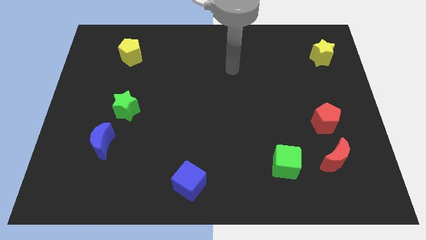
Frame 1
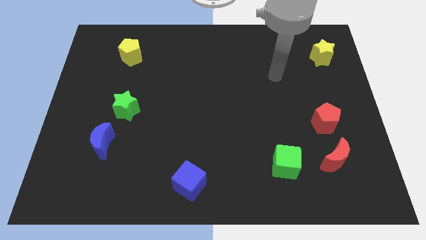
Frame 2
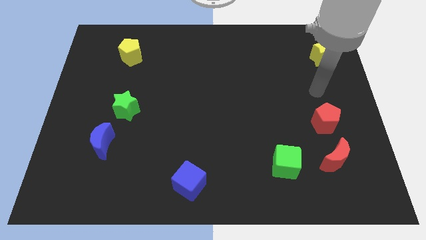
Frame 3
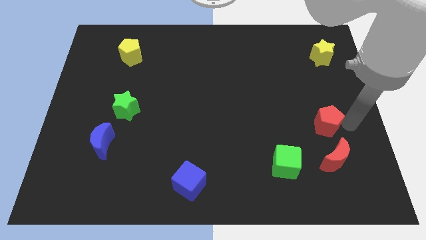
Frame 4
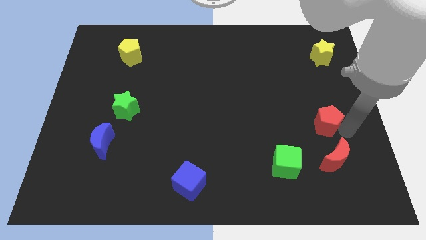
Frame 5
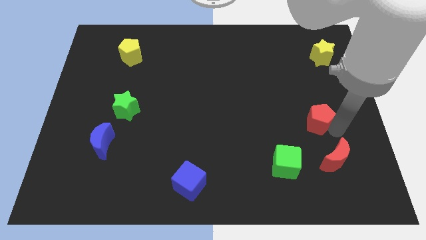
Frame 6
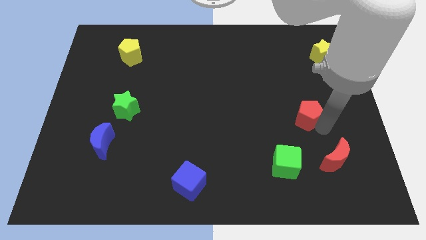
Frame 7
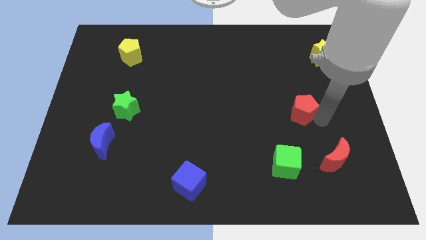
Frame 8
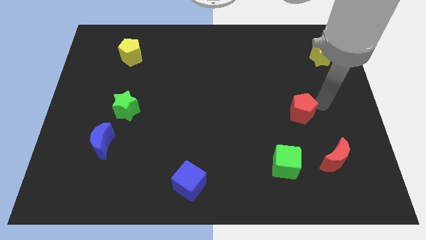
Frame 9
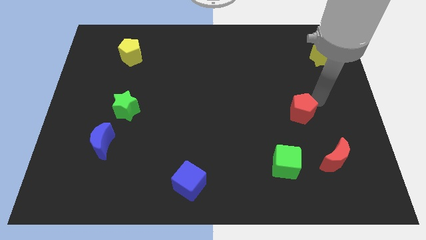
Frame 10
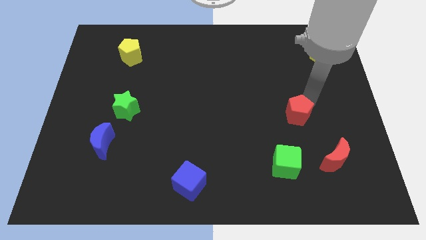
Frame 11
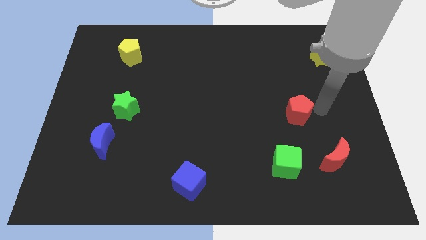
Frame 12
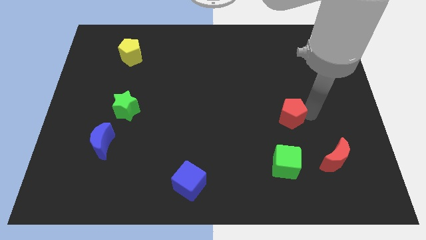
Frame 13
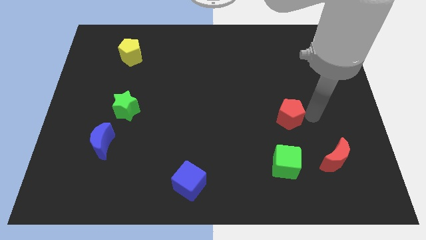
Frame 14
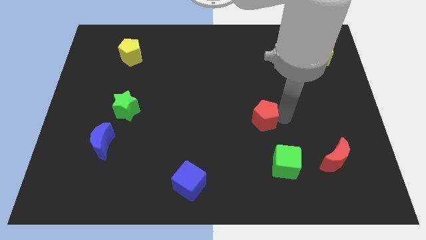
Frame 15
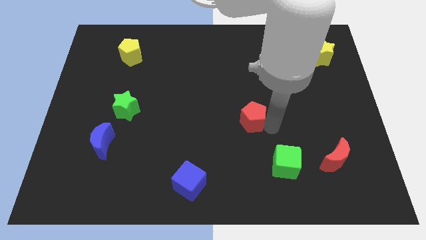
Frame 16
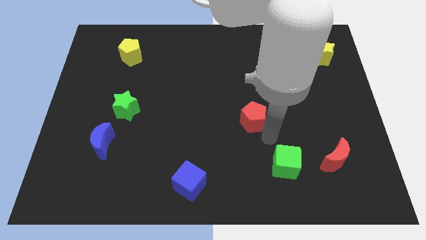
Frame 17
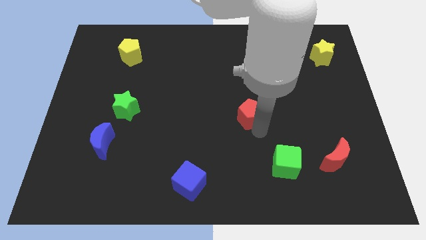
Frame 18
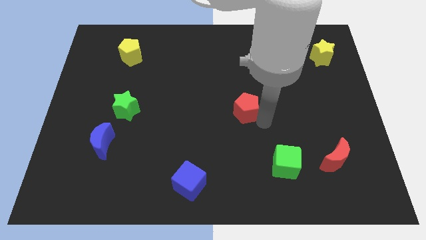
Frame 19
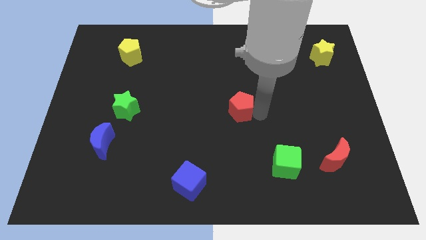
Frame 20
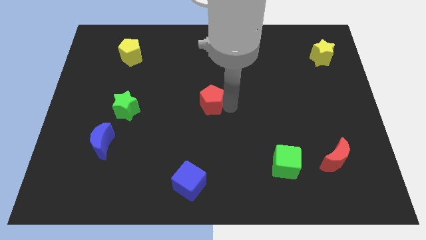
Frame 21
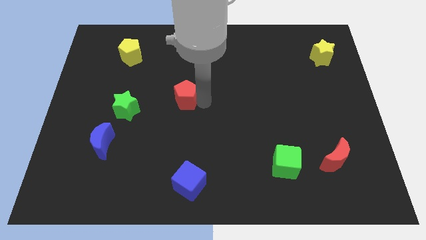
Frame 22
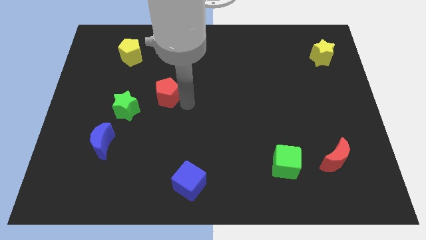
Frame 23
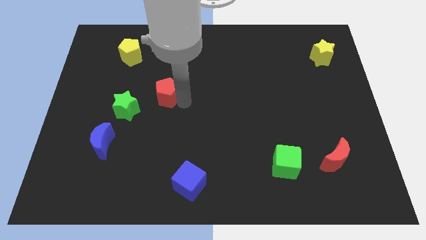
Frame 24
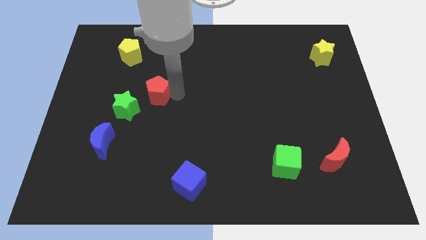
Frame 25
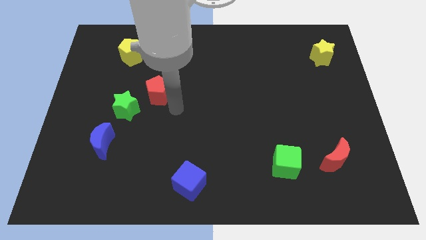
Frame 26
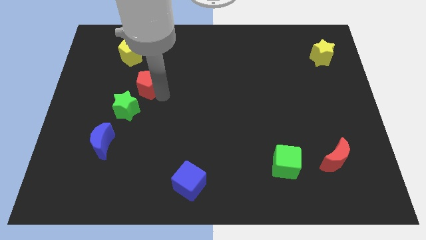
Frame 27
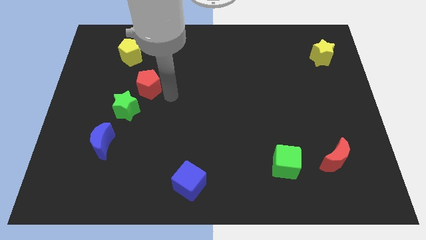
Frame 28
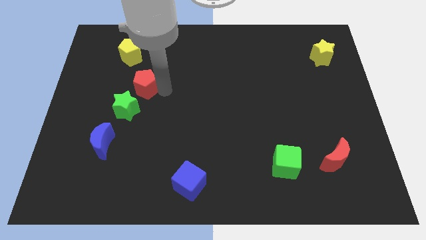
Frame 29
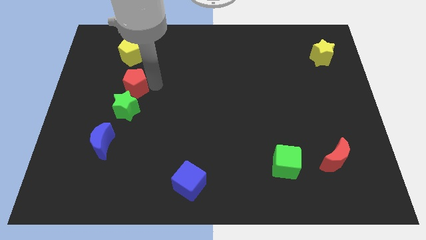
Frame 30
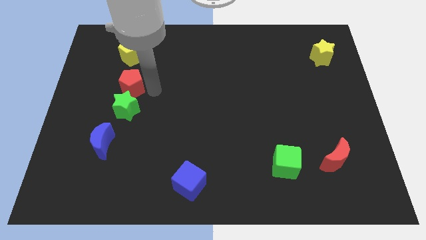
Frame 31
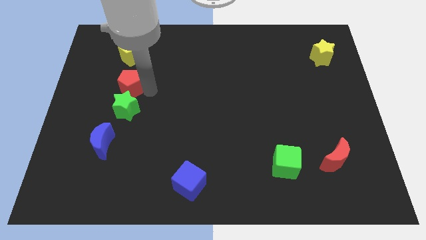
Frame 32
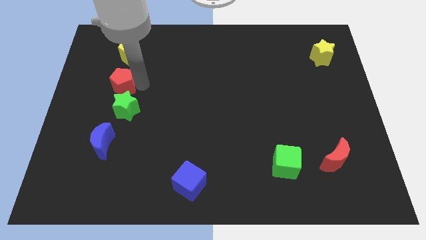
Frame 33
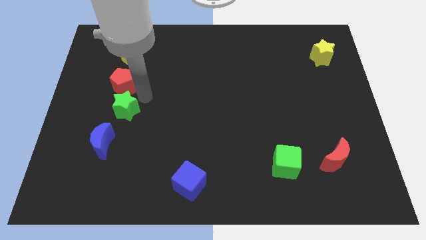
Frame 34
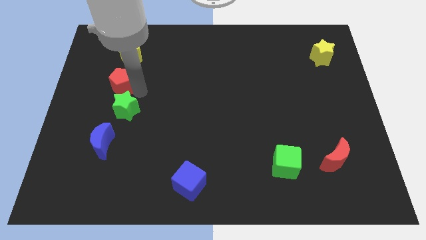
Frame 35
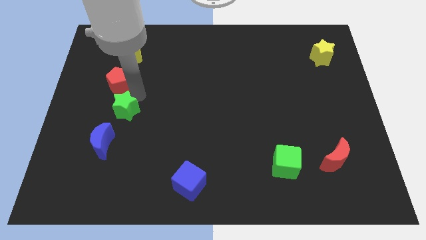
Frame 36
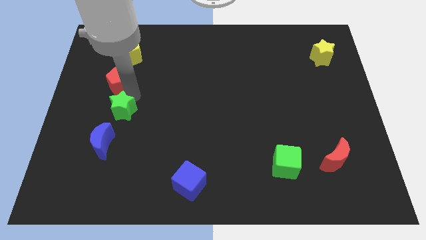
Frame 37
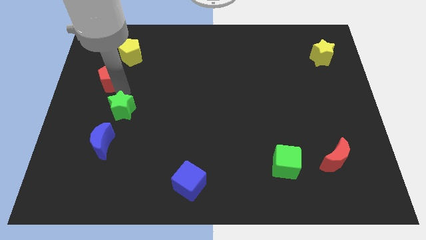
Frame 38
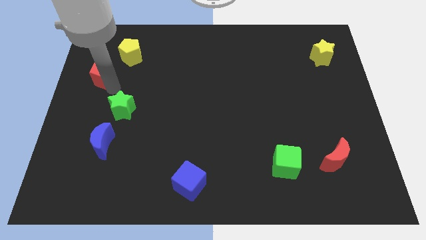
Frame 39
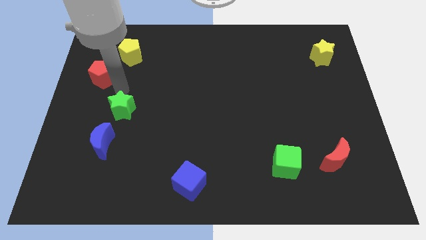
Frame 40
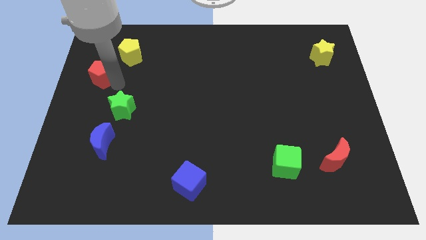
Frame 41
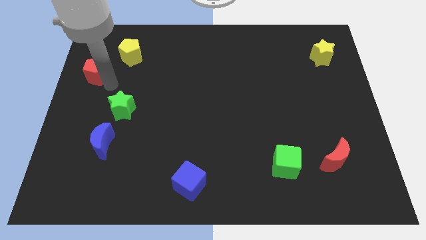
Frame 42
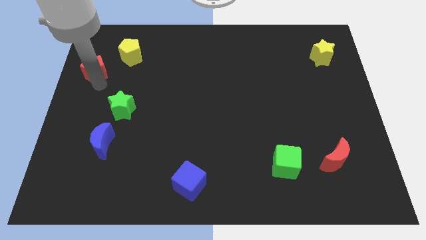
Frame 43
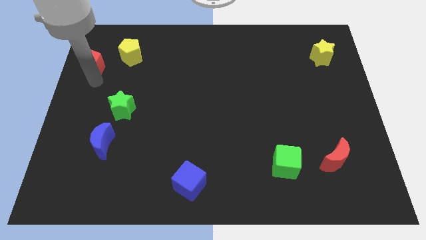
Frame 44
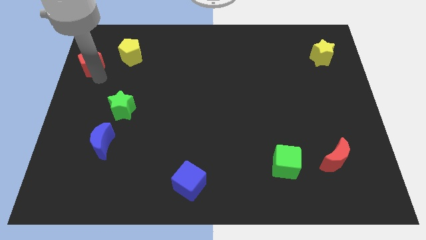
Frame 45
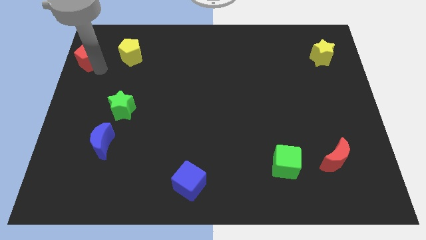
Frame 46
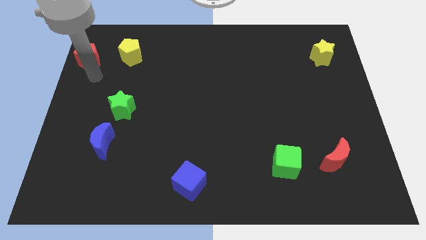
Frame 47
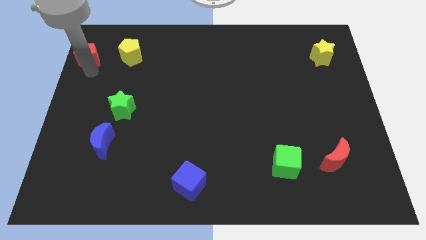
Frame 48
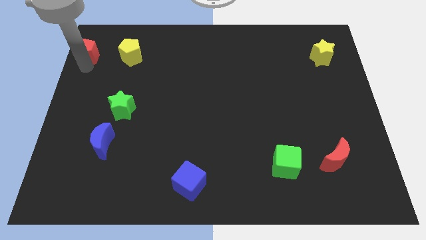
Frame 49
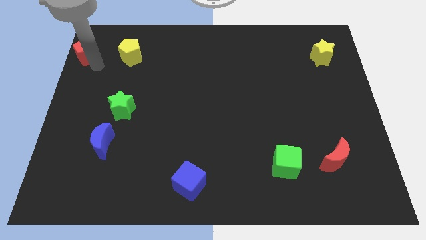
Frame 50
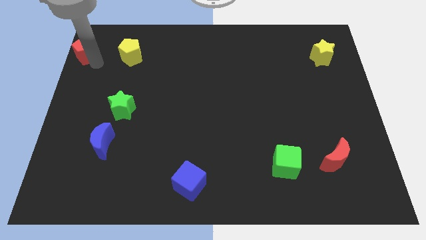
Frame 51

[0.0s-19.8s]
slide the red pentagon to the top left corner

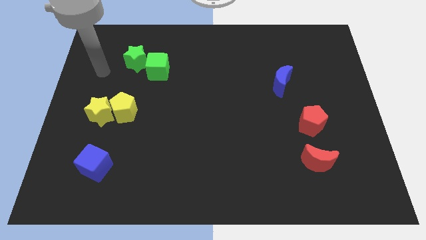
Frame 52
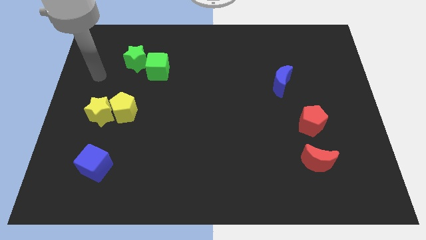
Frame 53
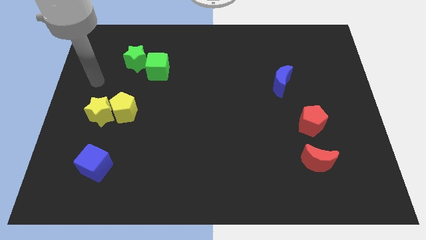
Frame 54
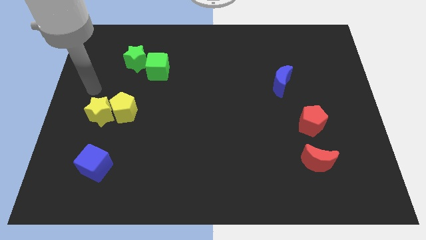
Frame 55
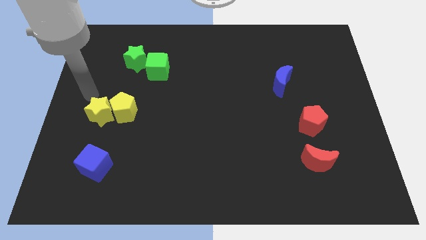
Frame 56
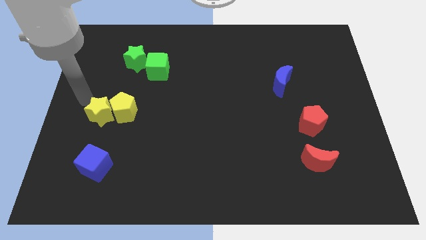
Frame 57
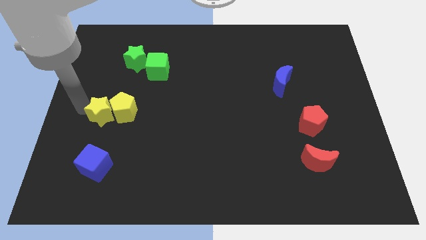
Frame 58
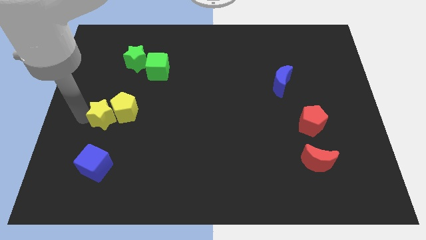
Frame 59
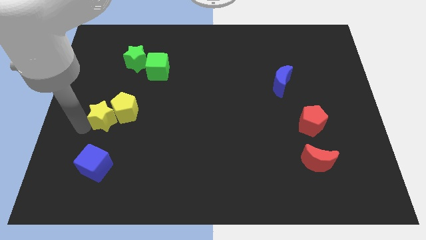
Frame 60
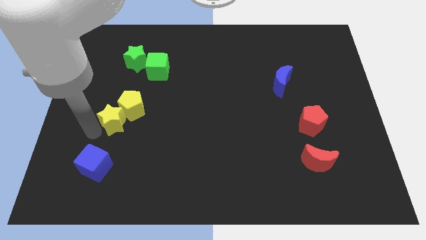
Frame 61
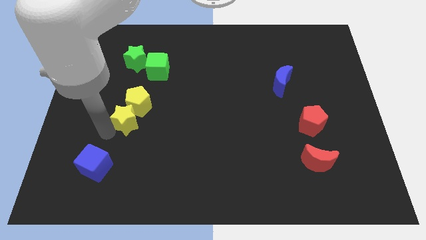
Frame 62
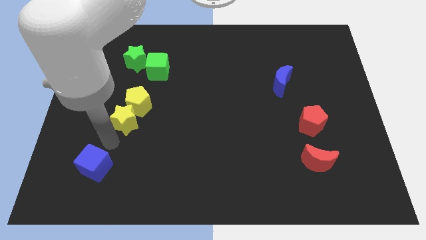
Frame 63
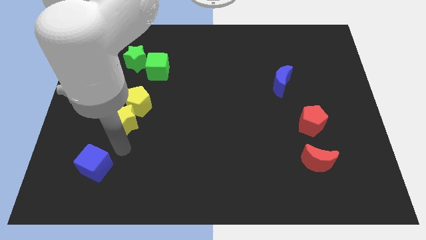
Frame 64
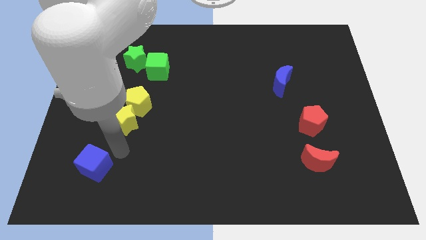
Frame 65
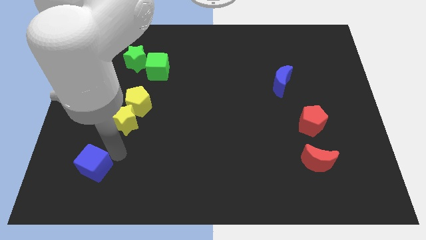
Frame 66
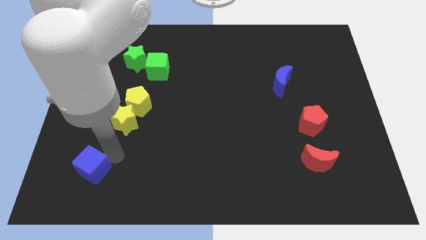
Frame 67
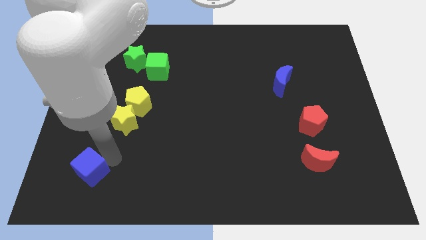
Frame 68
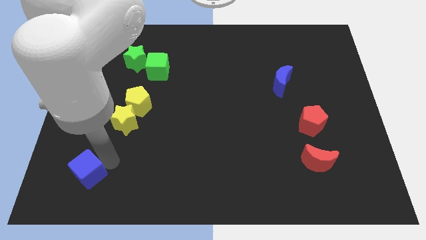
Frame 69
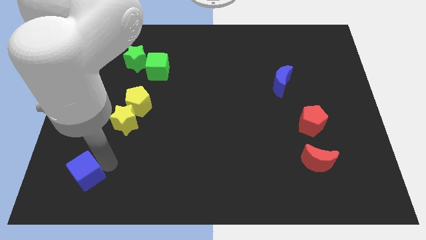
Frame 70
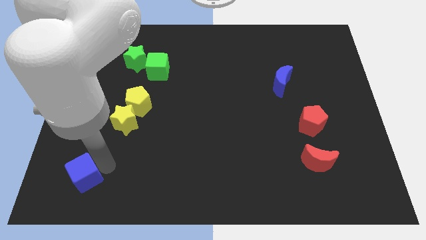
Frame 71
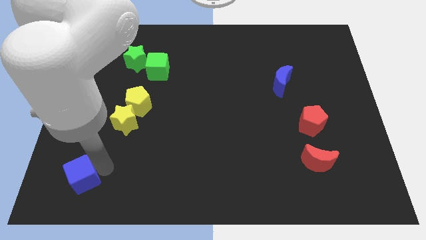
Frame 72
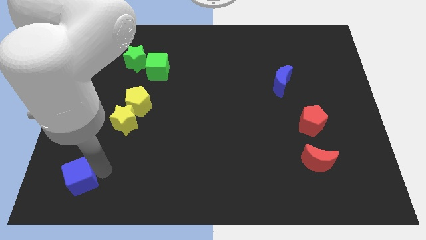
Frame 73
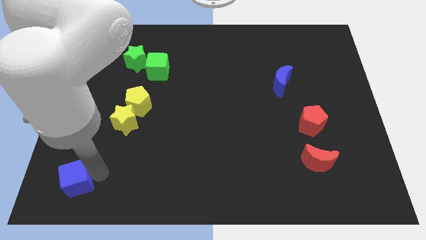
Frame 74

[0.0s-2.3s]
move the blue cube to the bottom left of the board

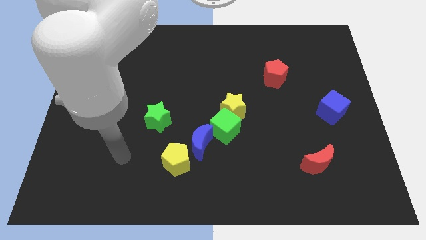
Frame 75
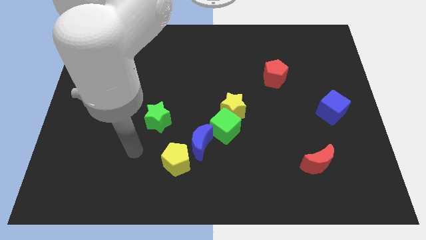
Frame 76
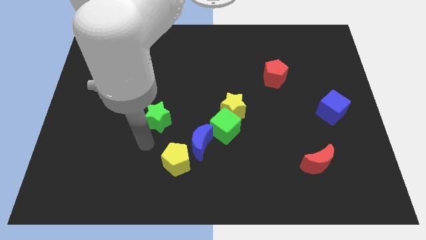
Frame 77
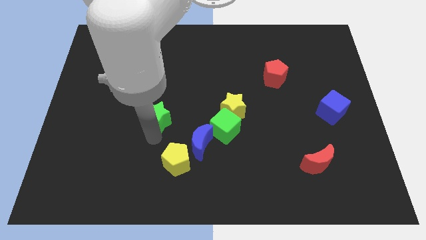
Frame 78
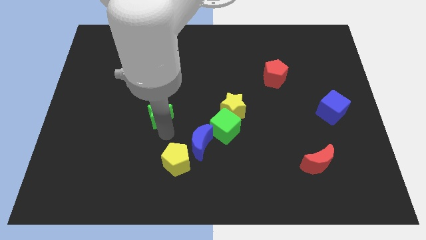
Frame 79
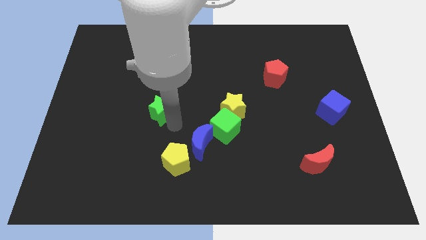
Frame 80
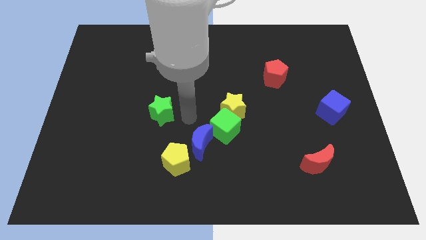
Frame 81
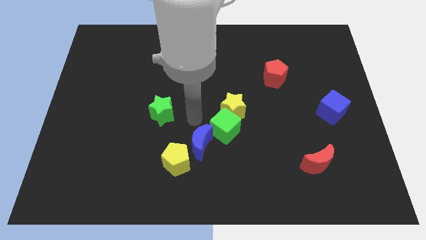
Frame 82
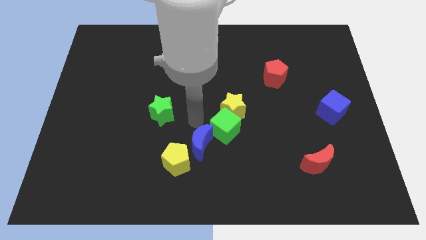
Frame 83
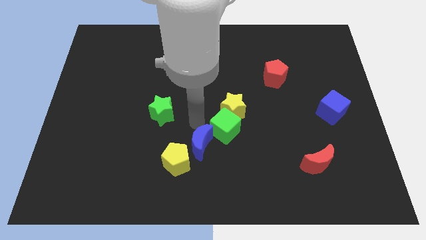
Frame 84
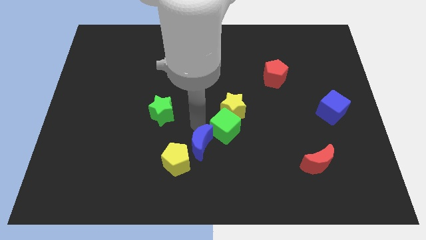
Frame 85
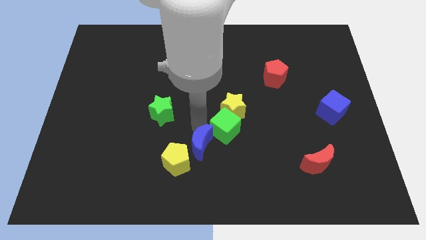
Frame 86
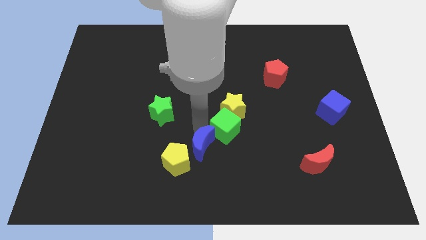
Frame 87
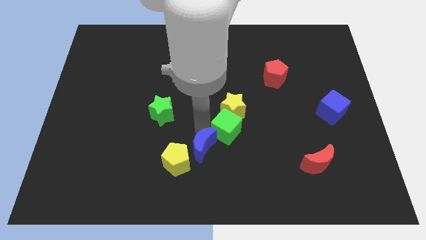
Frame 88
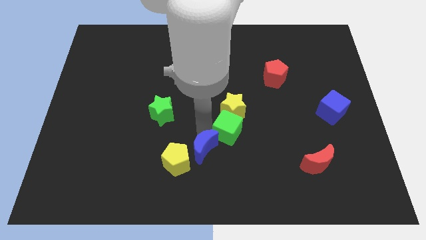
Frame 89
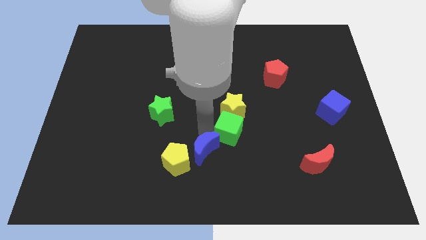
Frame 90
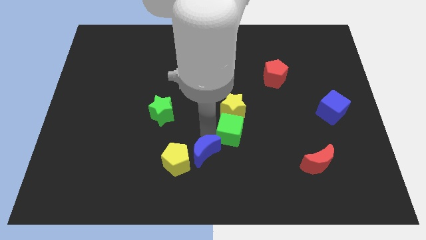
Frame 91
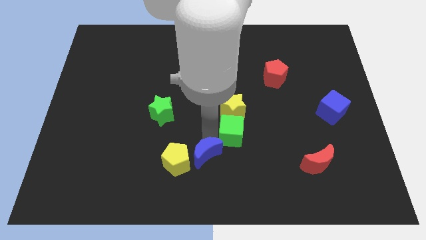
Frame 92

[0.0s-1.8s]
slide the blue moon to the bottom side
